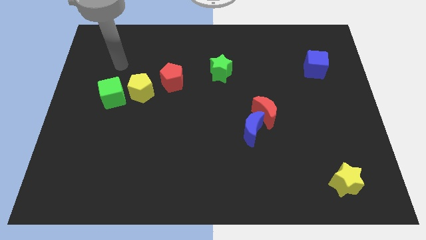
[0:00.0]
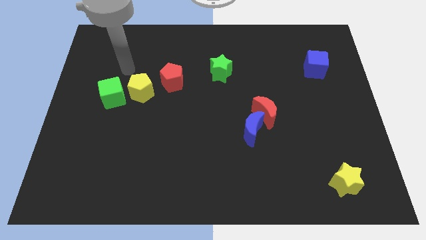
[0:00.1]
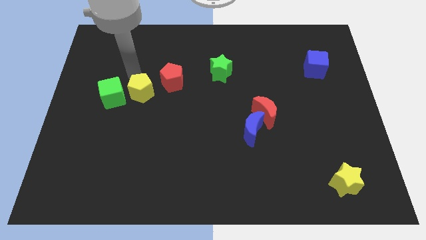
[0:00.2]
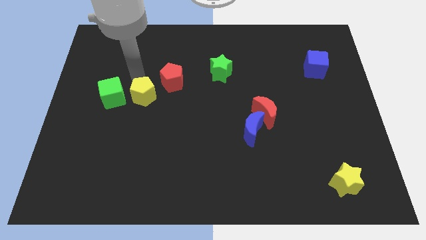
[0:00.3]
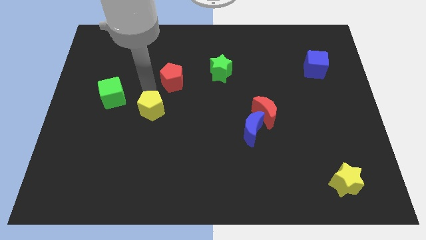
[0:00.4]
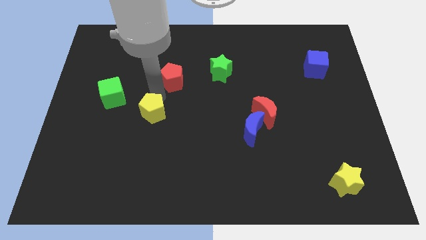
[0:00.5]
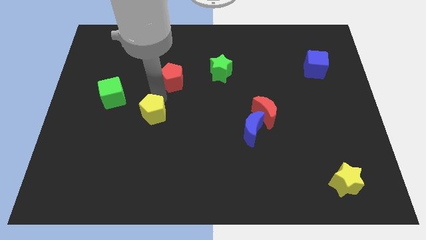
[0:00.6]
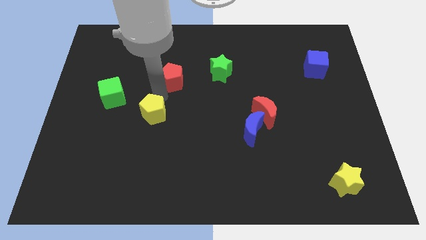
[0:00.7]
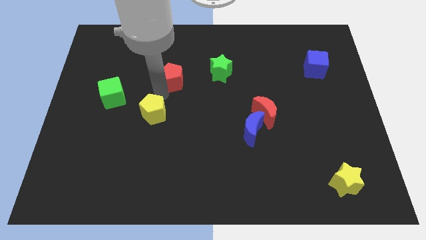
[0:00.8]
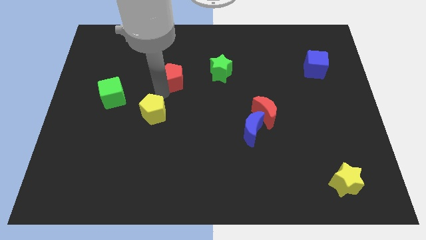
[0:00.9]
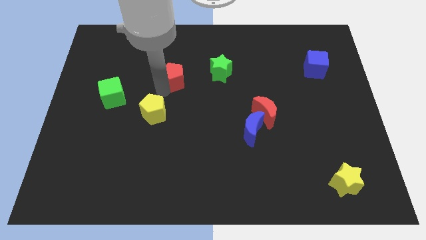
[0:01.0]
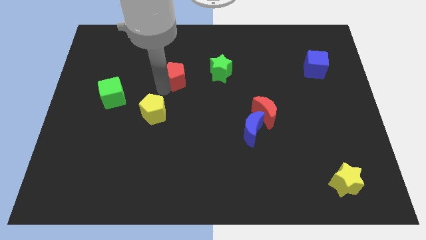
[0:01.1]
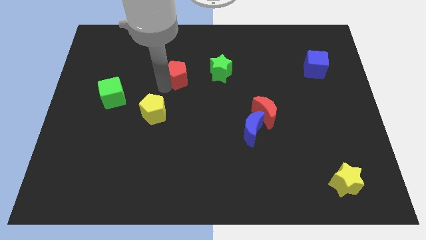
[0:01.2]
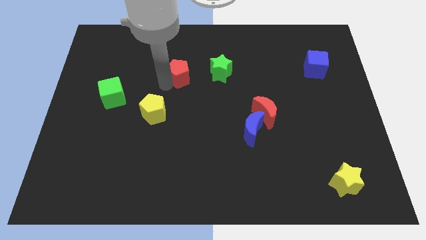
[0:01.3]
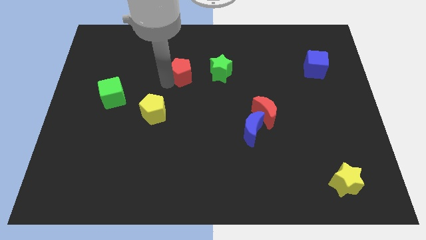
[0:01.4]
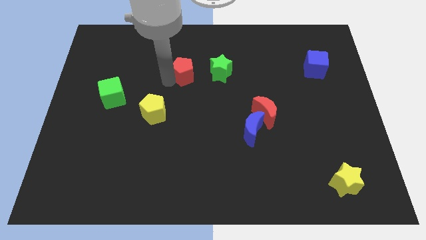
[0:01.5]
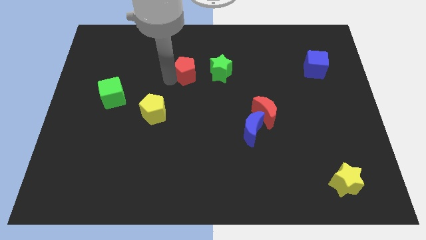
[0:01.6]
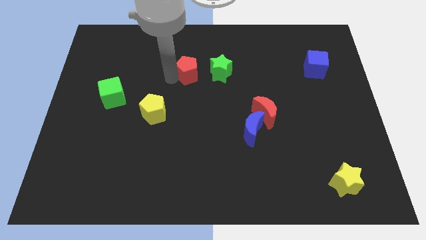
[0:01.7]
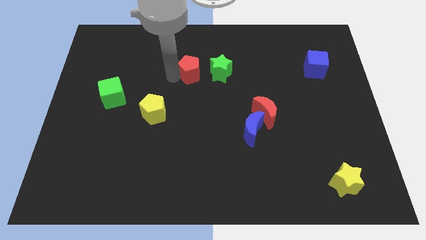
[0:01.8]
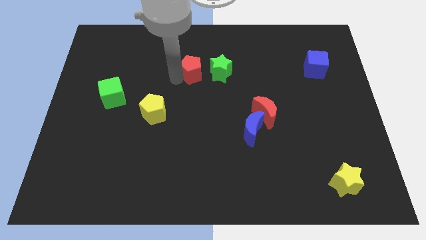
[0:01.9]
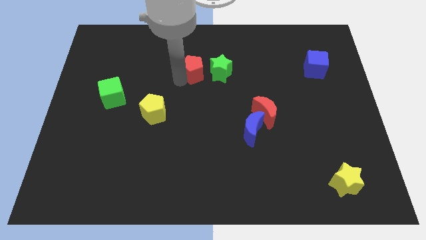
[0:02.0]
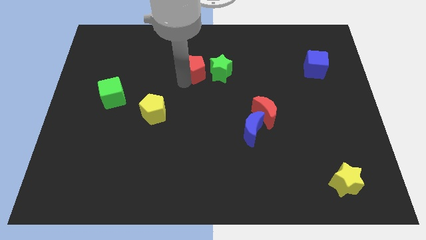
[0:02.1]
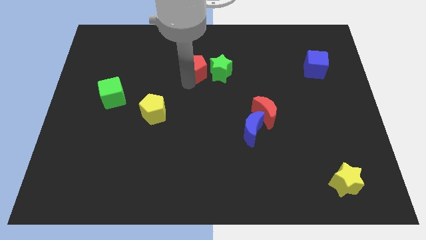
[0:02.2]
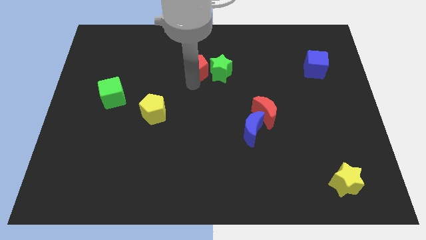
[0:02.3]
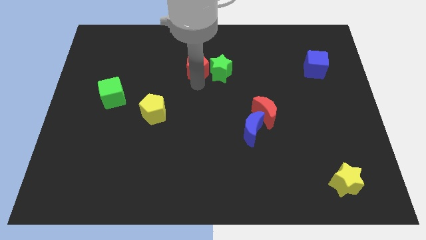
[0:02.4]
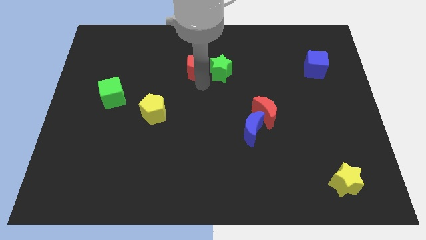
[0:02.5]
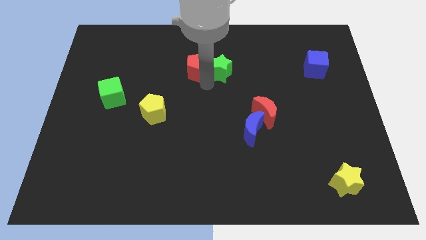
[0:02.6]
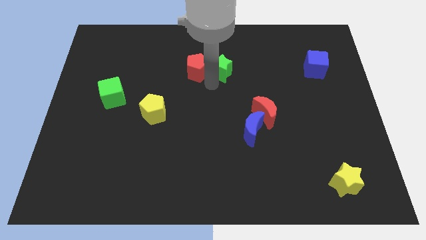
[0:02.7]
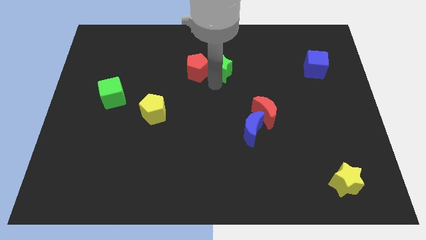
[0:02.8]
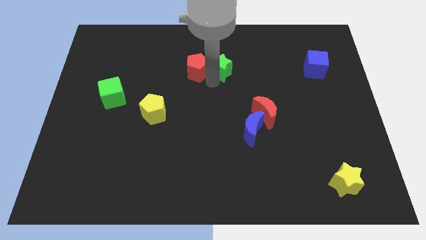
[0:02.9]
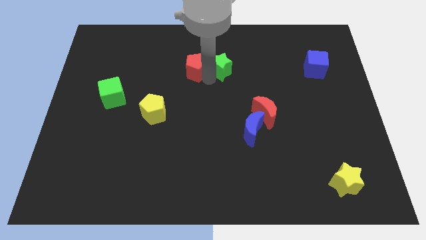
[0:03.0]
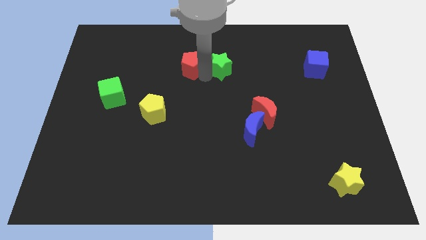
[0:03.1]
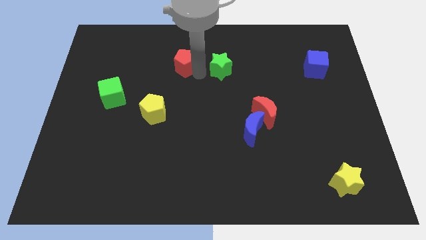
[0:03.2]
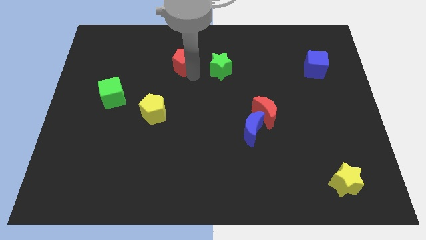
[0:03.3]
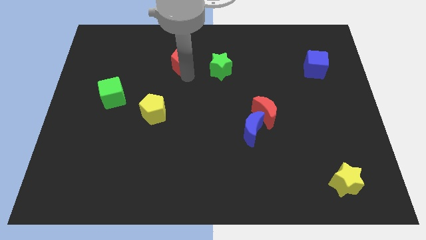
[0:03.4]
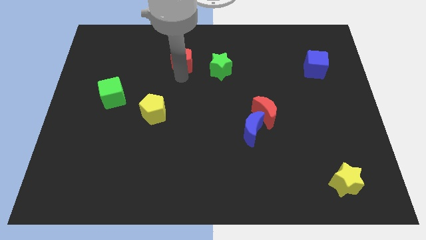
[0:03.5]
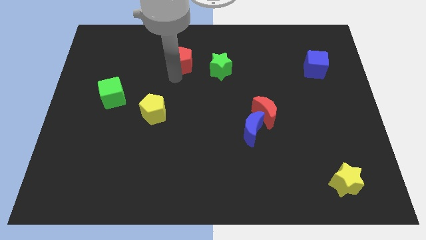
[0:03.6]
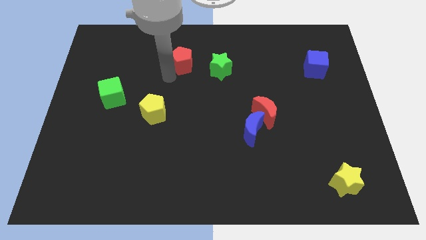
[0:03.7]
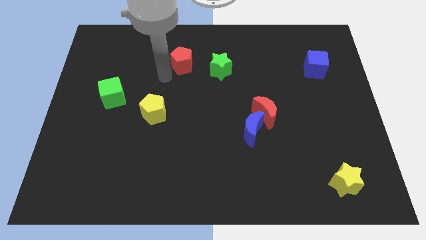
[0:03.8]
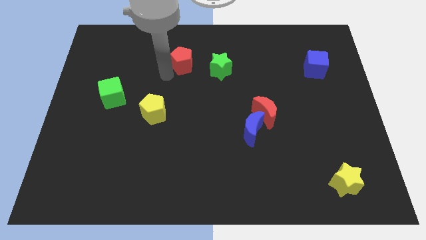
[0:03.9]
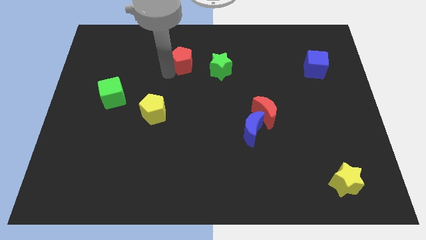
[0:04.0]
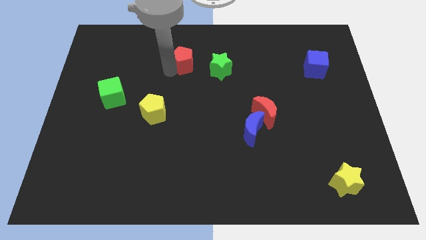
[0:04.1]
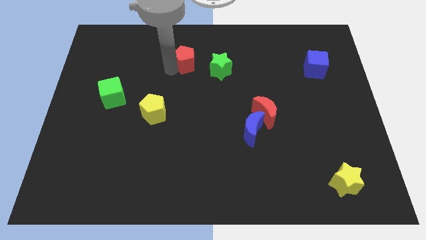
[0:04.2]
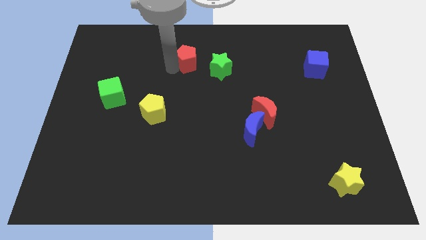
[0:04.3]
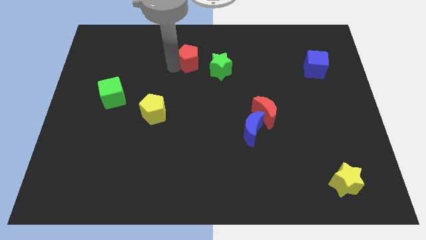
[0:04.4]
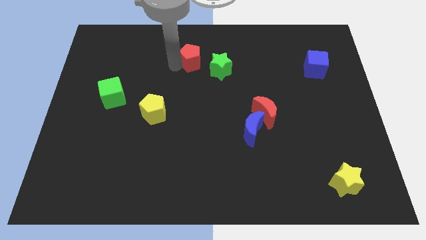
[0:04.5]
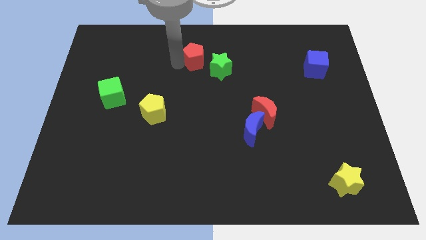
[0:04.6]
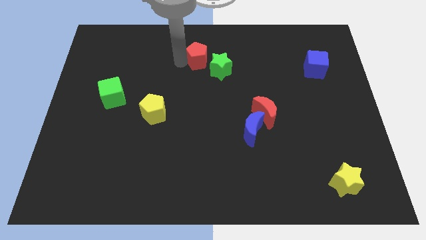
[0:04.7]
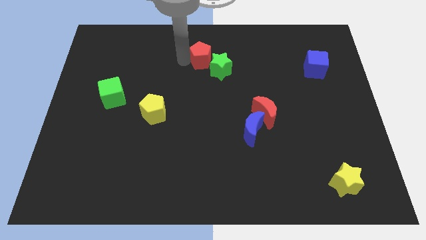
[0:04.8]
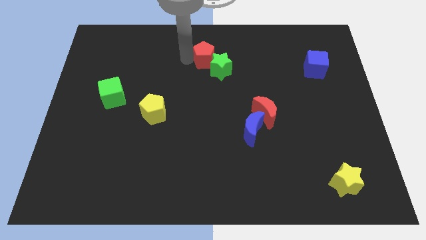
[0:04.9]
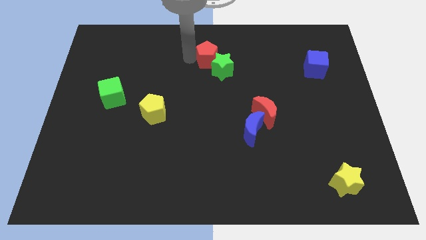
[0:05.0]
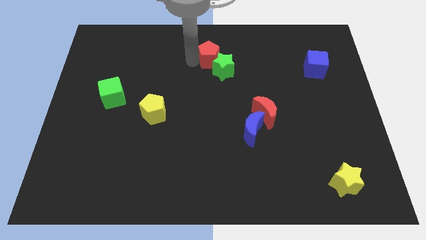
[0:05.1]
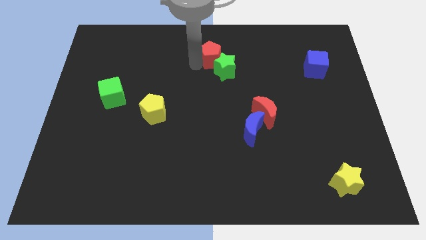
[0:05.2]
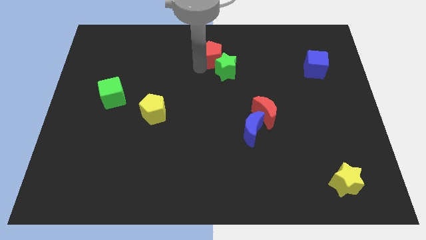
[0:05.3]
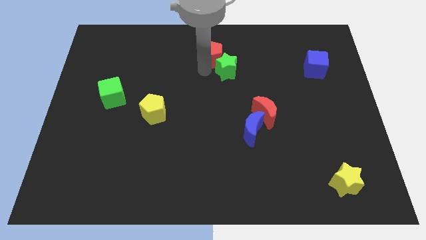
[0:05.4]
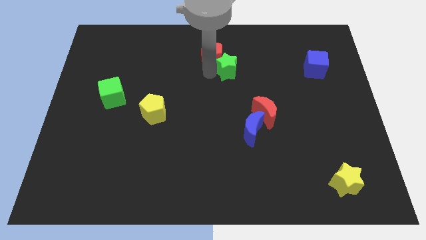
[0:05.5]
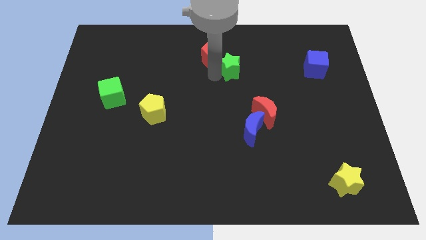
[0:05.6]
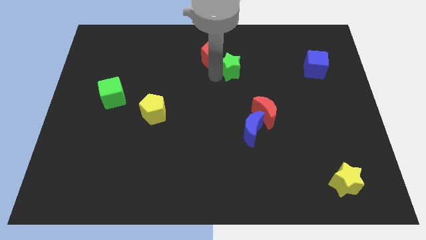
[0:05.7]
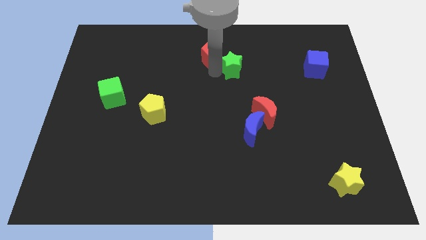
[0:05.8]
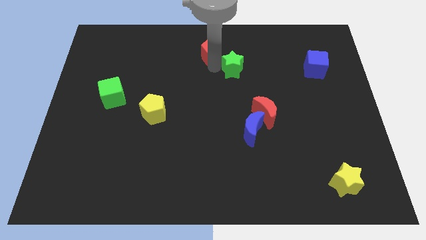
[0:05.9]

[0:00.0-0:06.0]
put the red pentagon to the top
